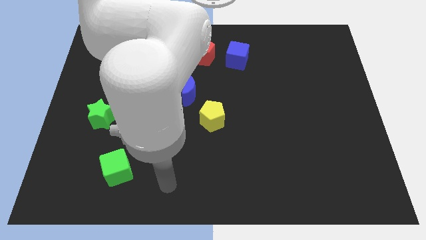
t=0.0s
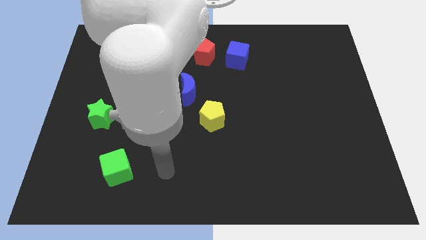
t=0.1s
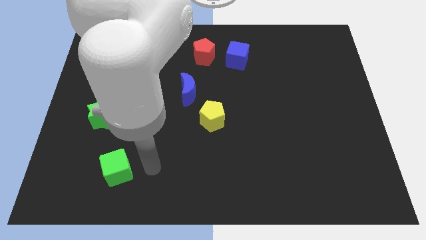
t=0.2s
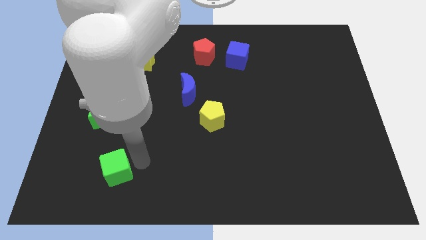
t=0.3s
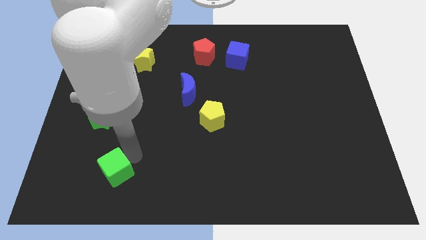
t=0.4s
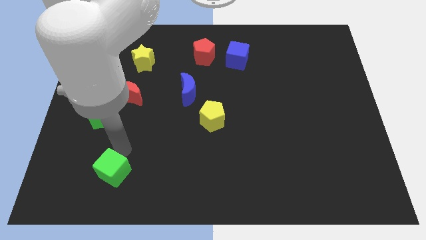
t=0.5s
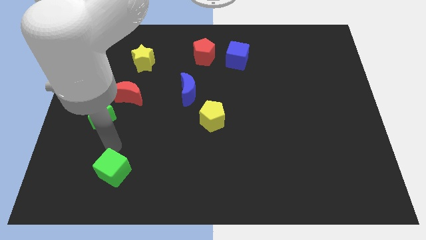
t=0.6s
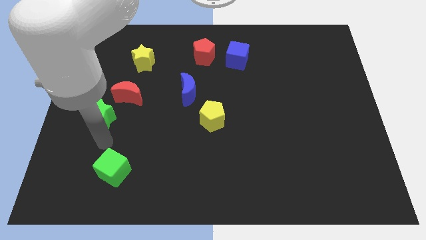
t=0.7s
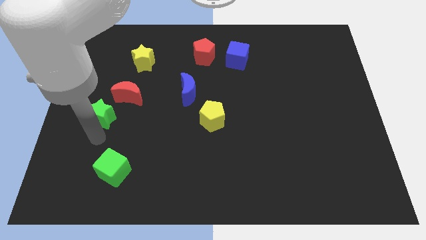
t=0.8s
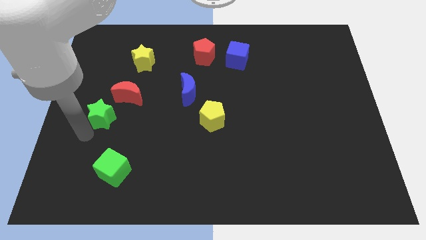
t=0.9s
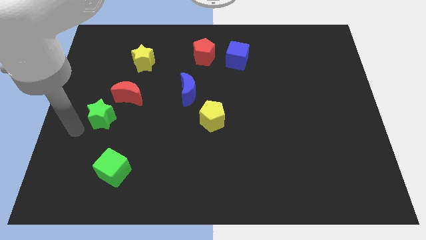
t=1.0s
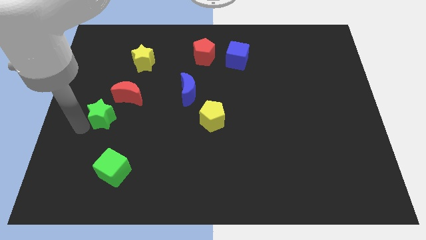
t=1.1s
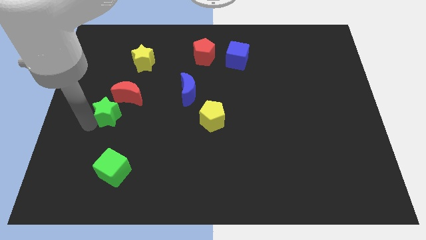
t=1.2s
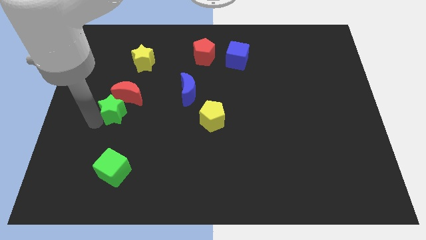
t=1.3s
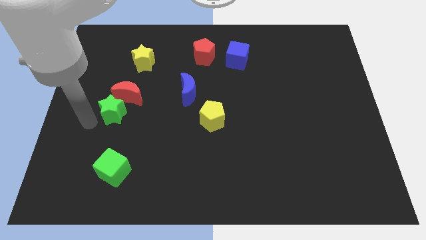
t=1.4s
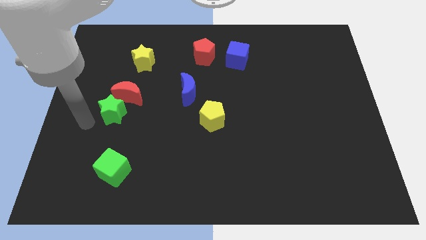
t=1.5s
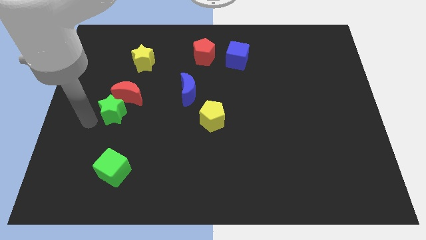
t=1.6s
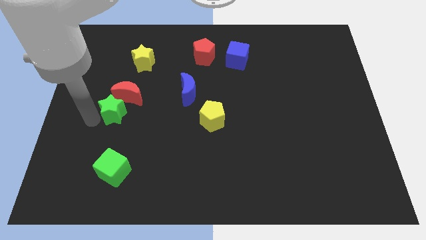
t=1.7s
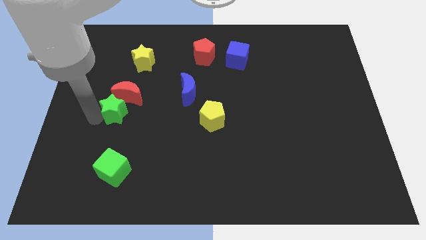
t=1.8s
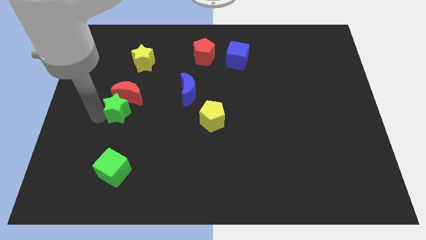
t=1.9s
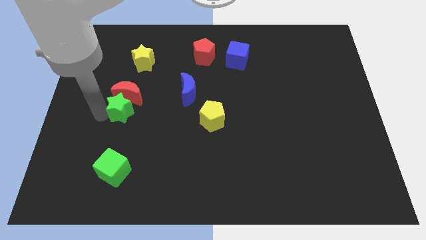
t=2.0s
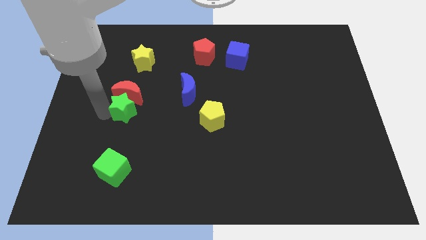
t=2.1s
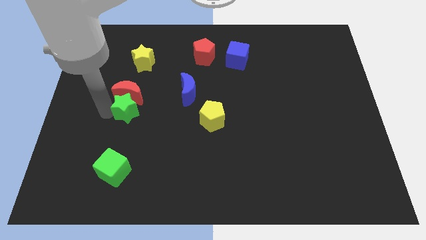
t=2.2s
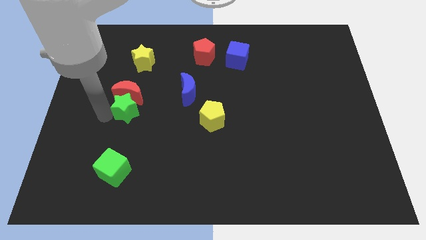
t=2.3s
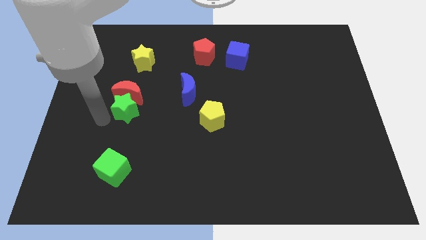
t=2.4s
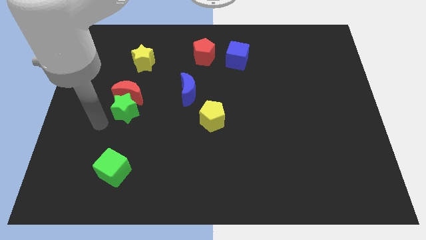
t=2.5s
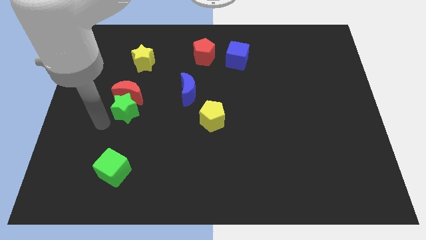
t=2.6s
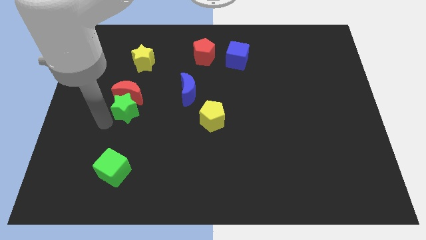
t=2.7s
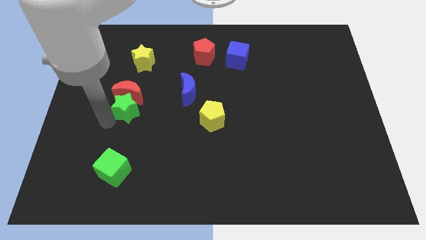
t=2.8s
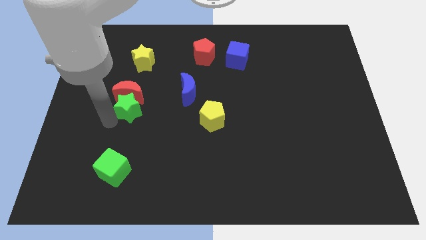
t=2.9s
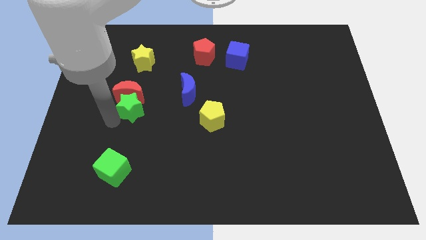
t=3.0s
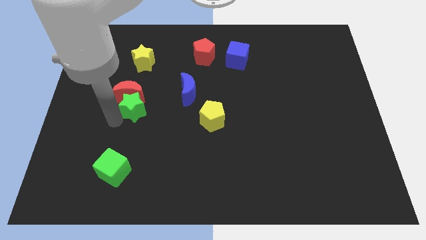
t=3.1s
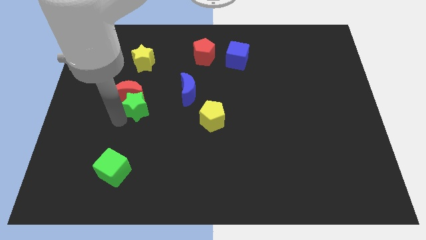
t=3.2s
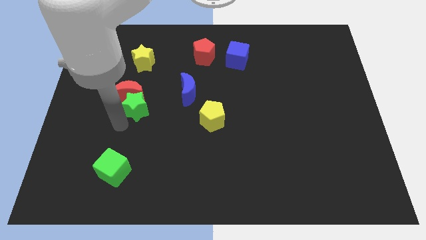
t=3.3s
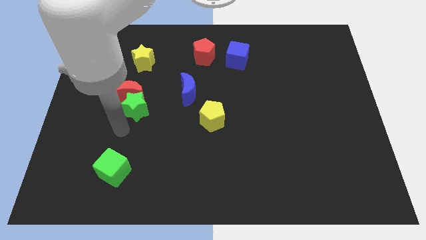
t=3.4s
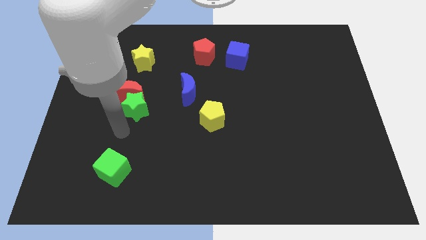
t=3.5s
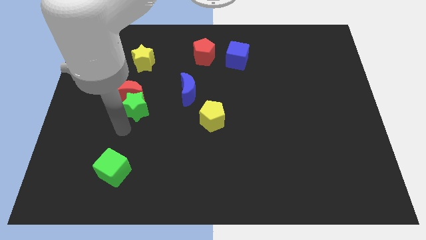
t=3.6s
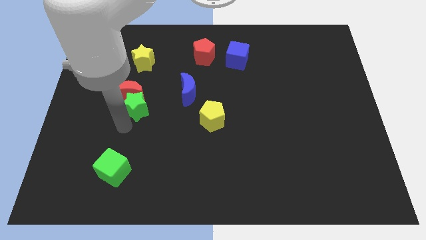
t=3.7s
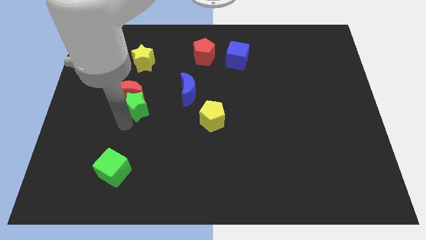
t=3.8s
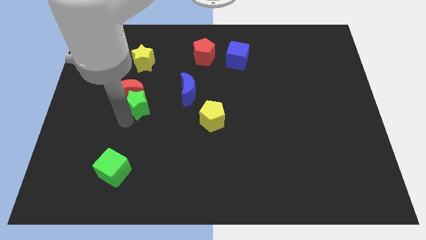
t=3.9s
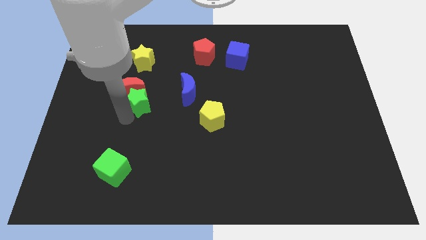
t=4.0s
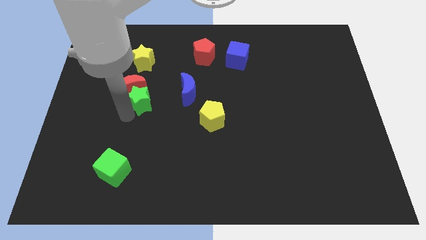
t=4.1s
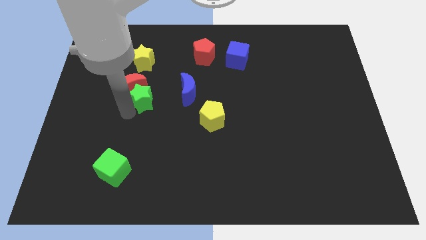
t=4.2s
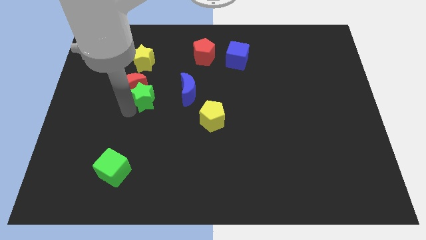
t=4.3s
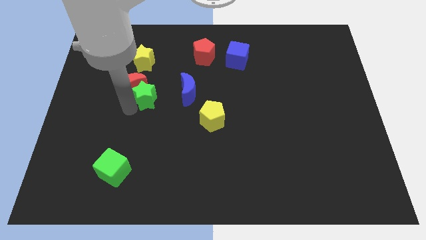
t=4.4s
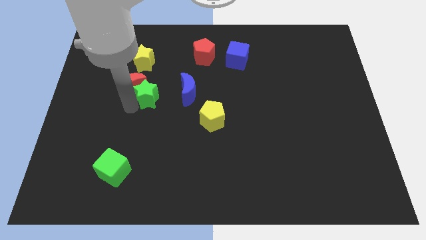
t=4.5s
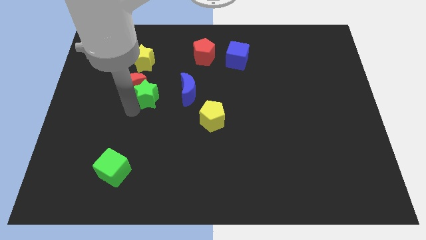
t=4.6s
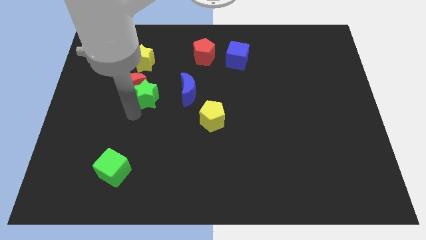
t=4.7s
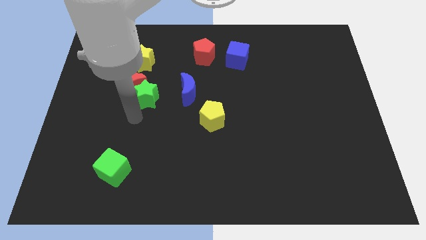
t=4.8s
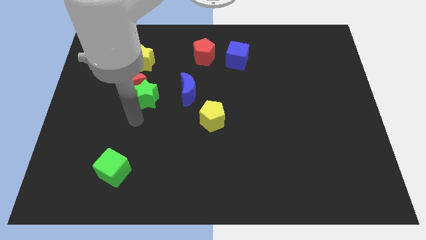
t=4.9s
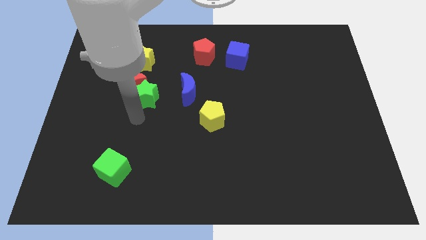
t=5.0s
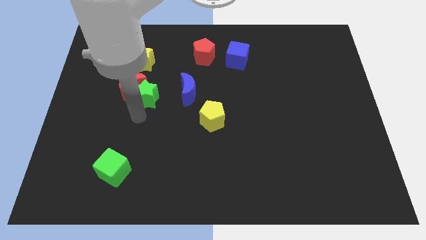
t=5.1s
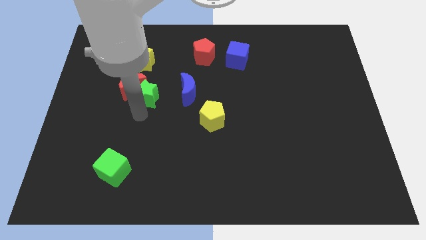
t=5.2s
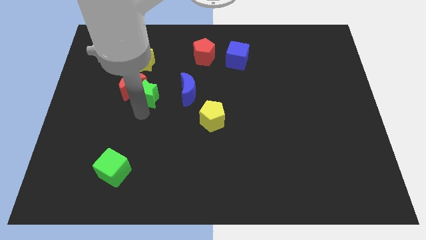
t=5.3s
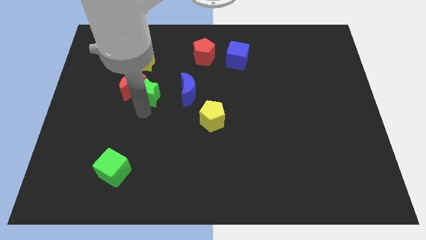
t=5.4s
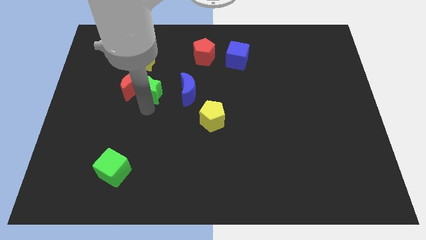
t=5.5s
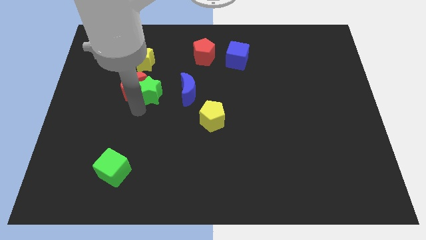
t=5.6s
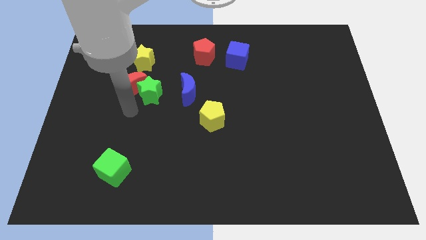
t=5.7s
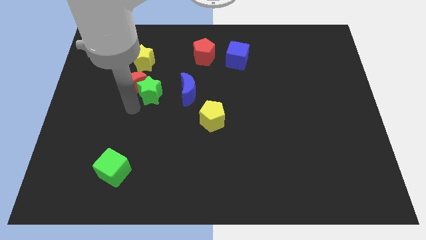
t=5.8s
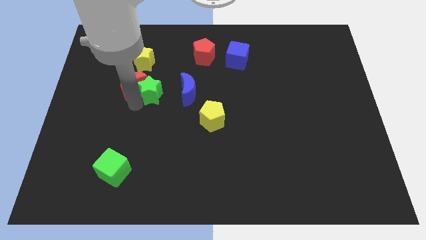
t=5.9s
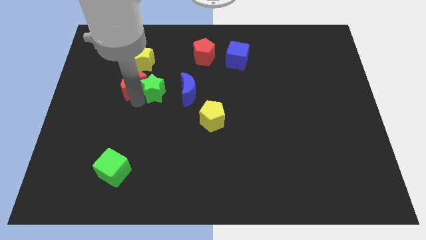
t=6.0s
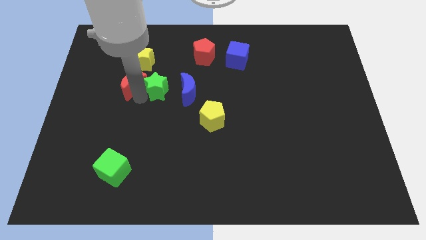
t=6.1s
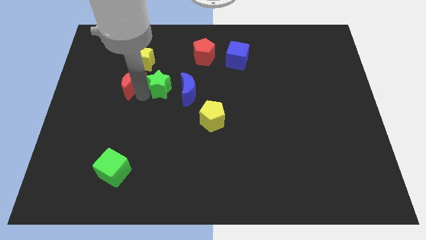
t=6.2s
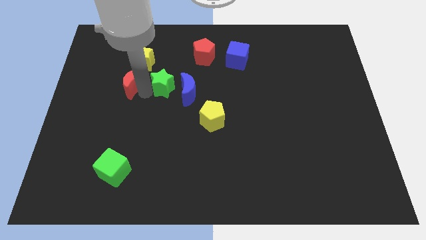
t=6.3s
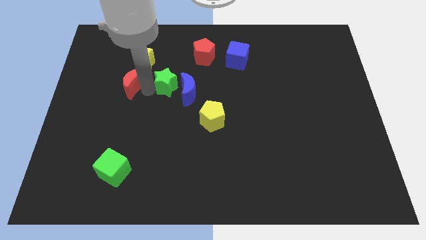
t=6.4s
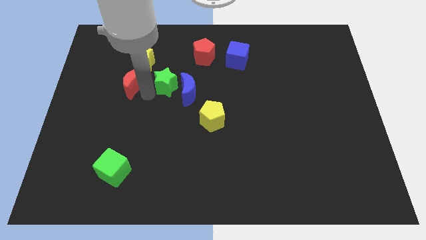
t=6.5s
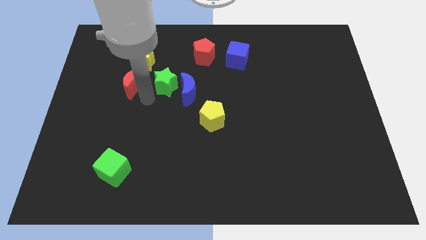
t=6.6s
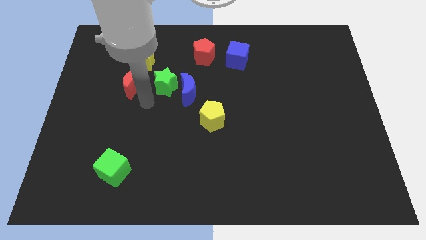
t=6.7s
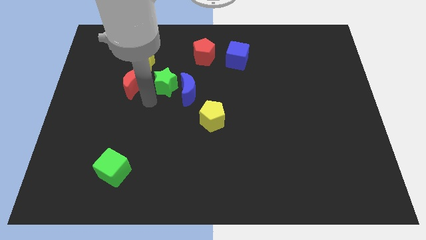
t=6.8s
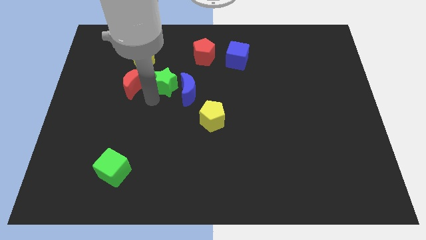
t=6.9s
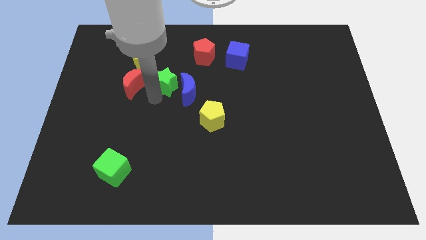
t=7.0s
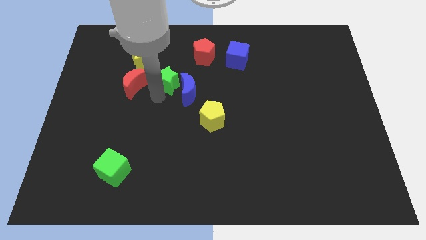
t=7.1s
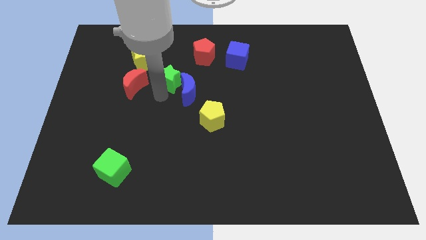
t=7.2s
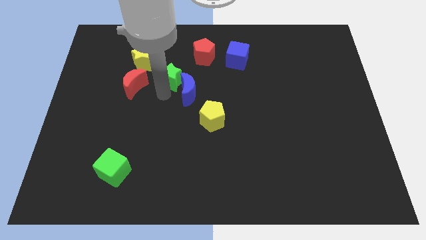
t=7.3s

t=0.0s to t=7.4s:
slide the green star diagonally down and to the left of the red pentagon

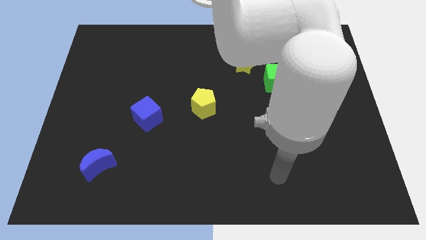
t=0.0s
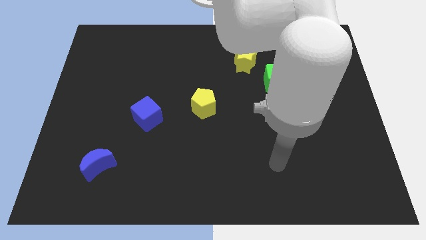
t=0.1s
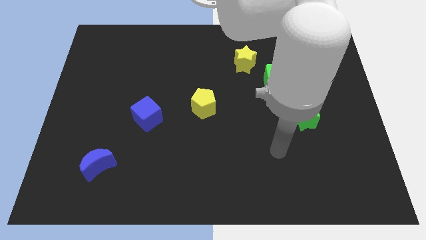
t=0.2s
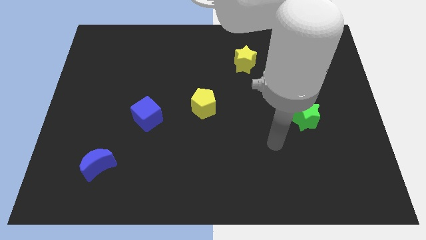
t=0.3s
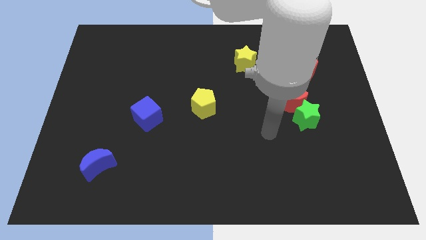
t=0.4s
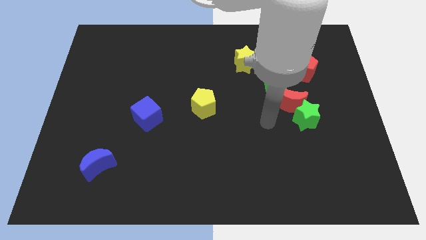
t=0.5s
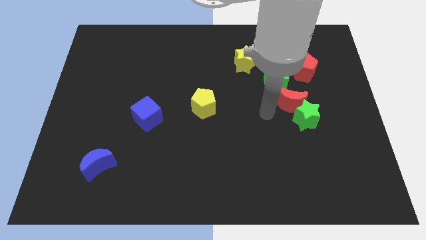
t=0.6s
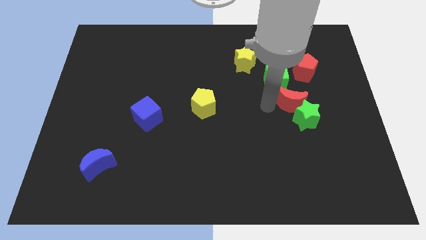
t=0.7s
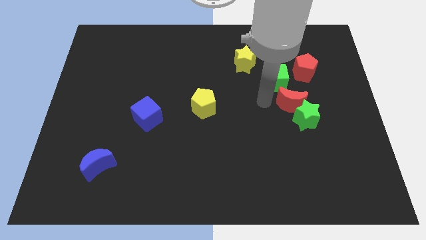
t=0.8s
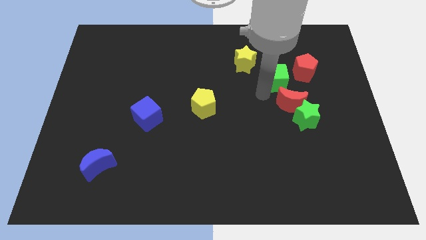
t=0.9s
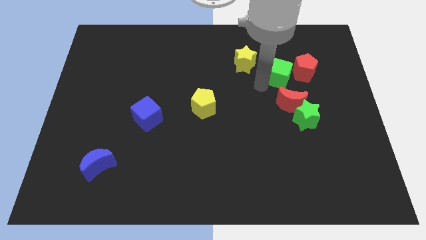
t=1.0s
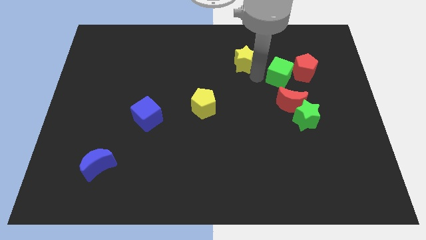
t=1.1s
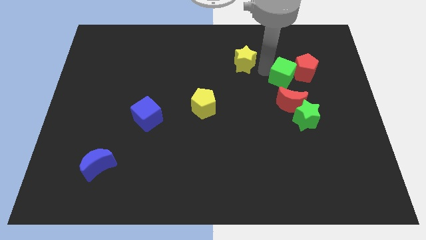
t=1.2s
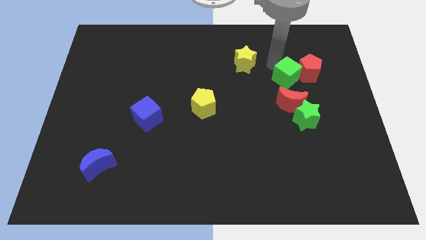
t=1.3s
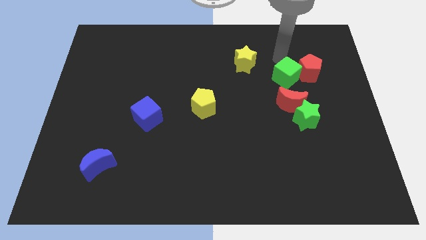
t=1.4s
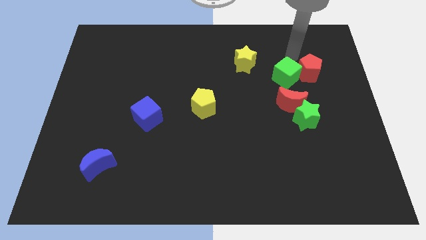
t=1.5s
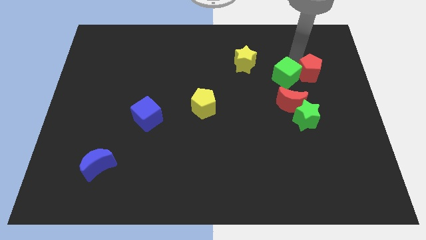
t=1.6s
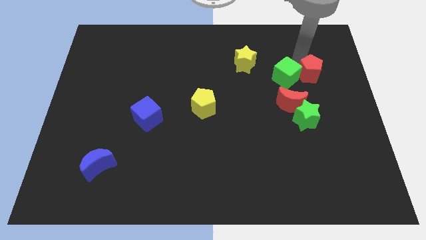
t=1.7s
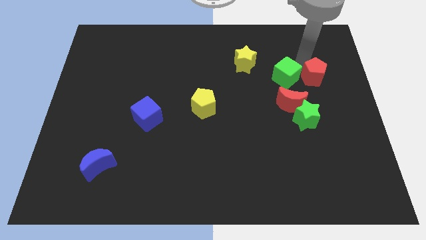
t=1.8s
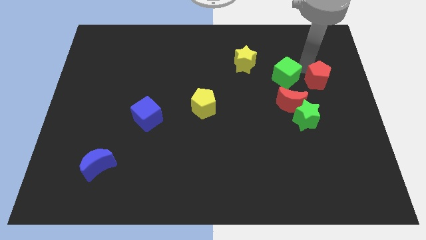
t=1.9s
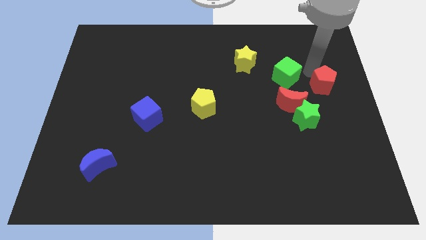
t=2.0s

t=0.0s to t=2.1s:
slide the red pentagon diagonally up and to the right of the green star
